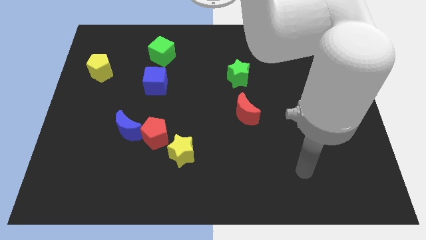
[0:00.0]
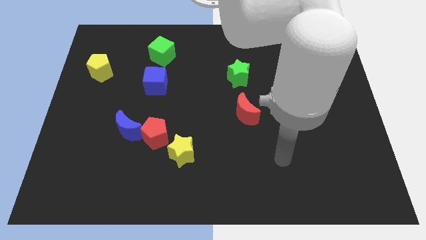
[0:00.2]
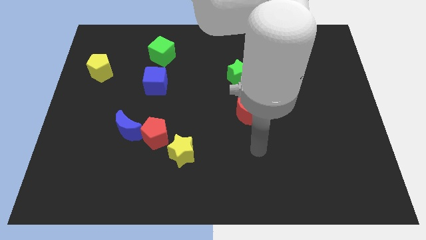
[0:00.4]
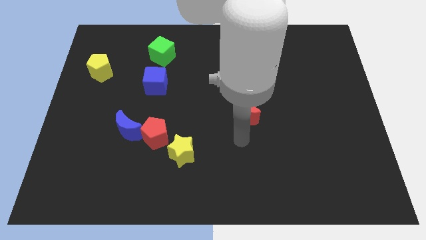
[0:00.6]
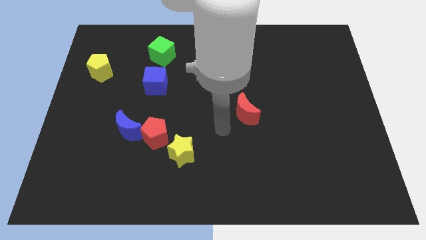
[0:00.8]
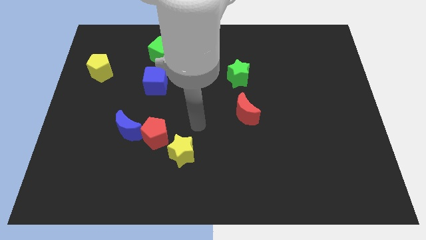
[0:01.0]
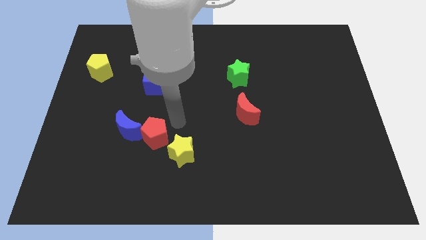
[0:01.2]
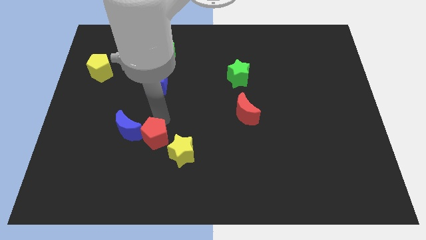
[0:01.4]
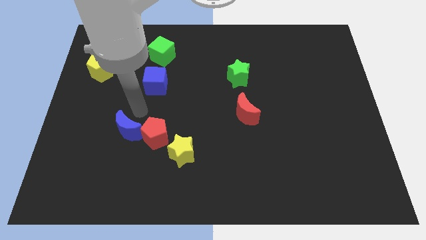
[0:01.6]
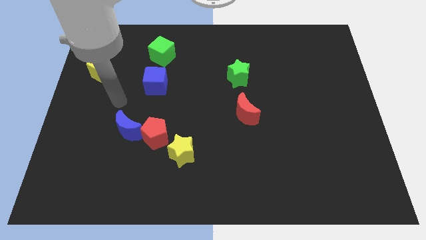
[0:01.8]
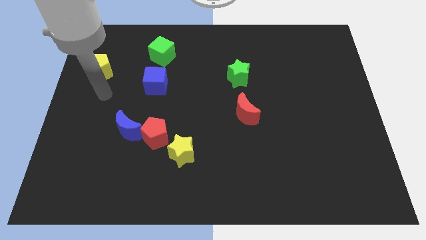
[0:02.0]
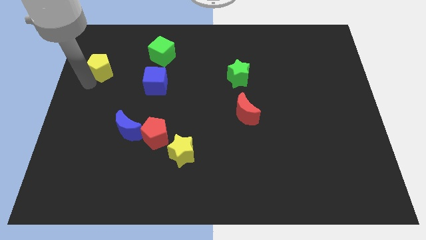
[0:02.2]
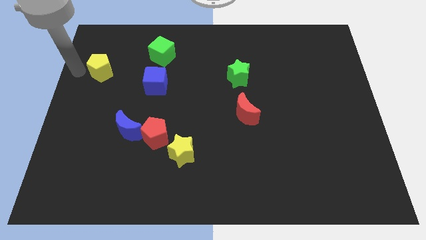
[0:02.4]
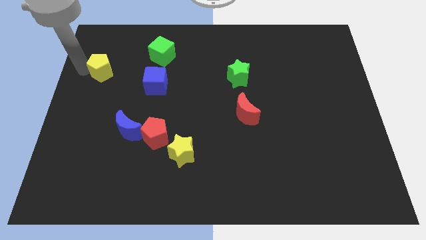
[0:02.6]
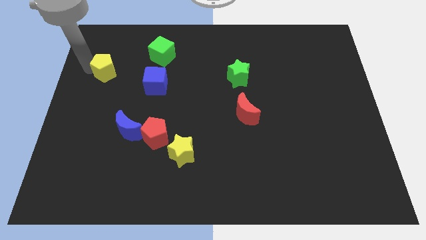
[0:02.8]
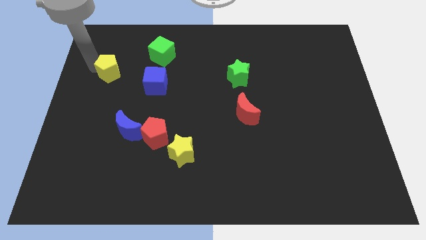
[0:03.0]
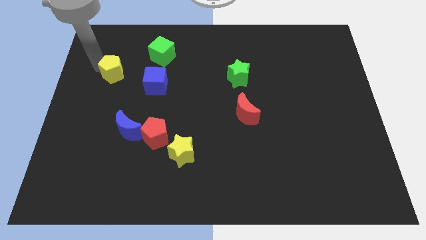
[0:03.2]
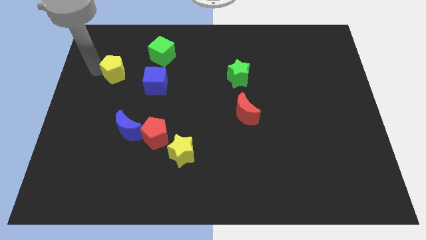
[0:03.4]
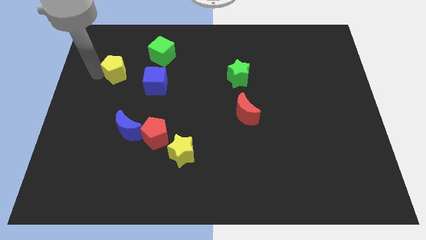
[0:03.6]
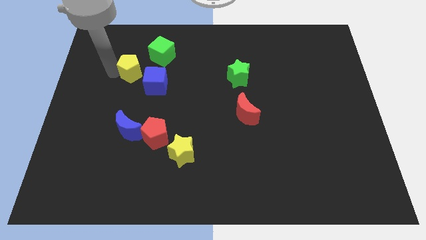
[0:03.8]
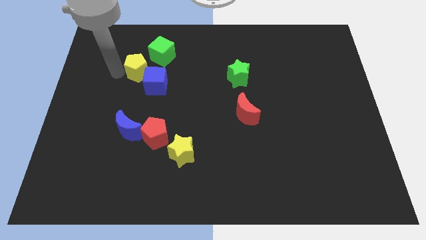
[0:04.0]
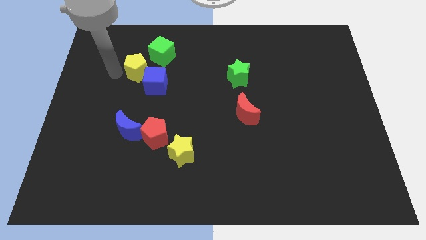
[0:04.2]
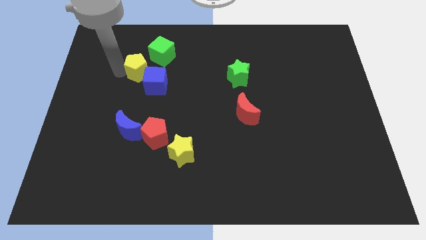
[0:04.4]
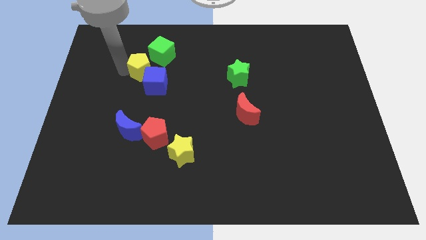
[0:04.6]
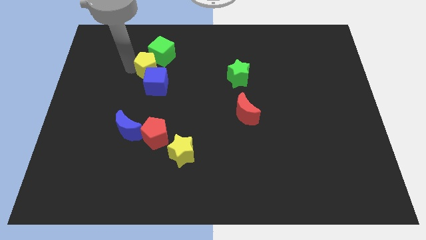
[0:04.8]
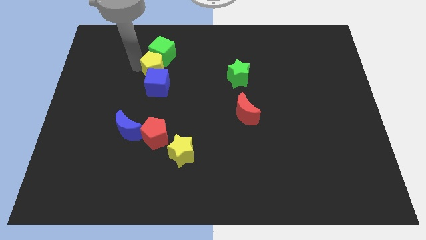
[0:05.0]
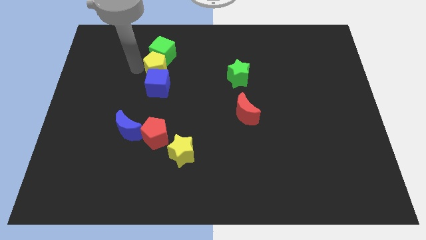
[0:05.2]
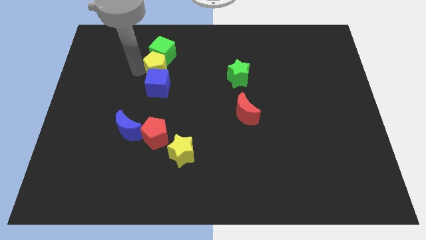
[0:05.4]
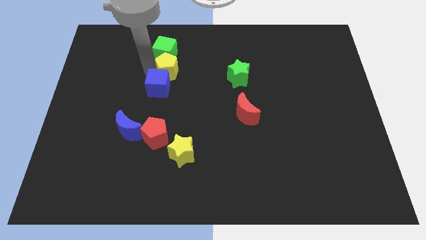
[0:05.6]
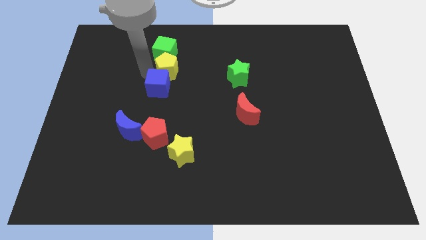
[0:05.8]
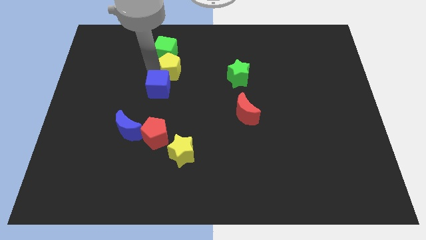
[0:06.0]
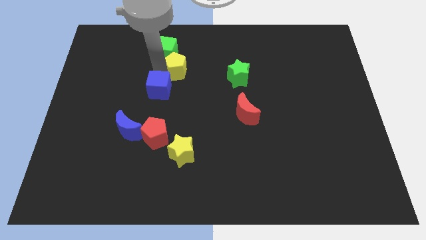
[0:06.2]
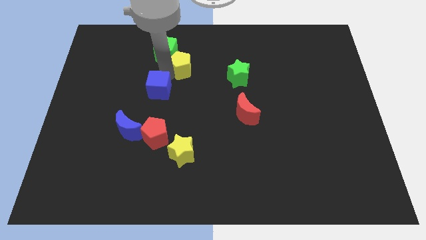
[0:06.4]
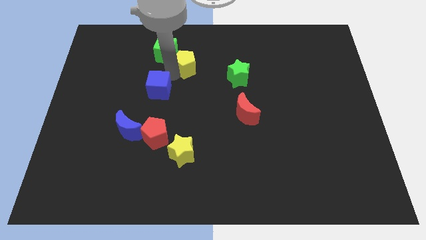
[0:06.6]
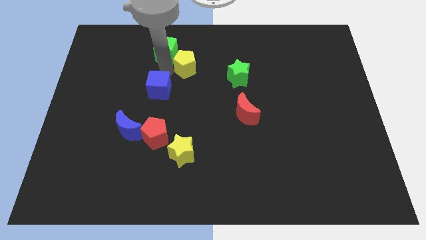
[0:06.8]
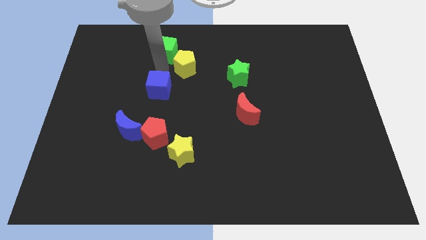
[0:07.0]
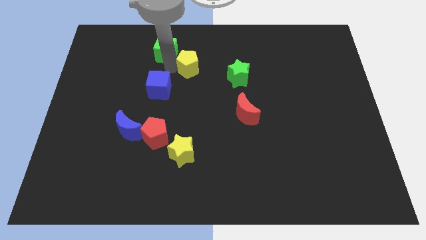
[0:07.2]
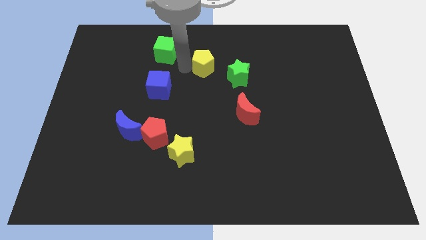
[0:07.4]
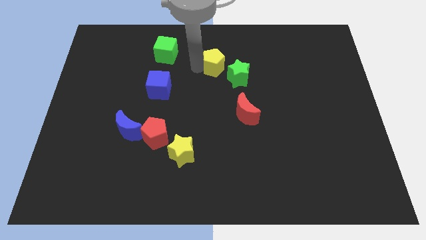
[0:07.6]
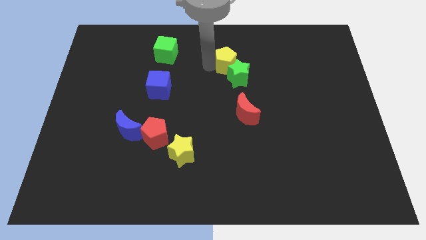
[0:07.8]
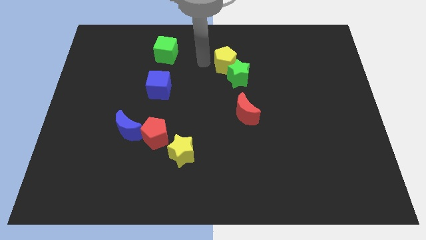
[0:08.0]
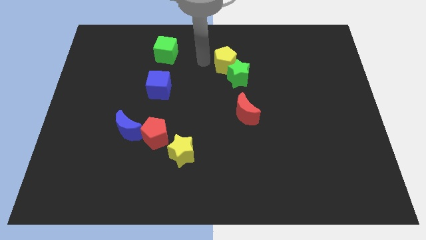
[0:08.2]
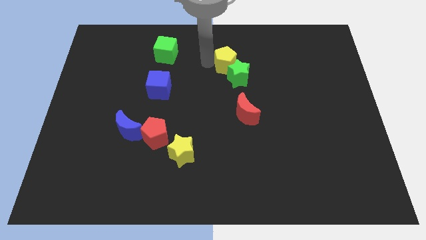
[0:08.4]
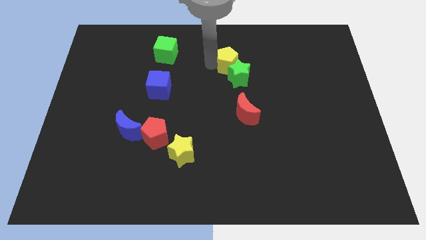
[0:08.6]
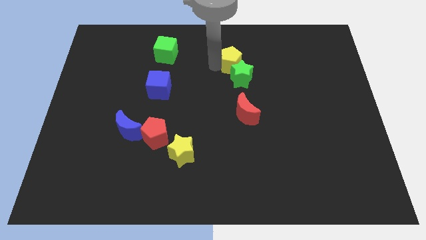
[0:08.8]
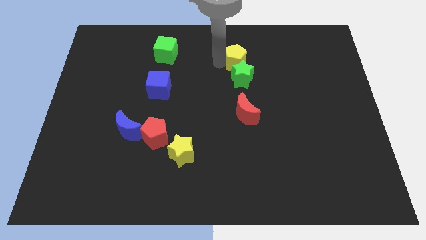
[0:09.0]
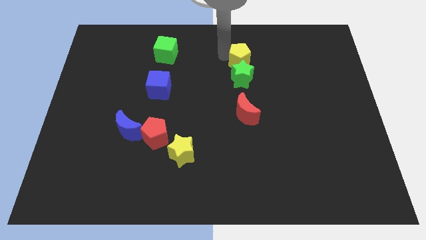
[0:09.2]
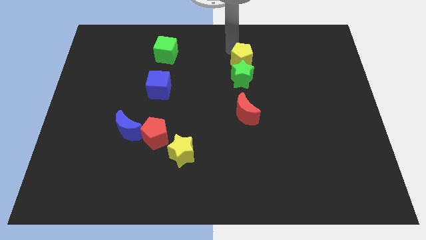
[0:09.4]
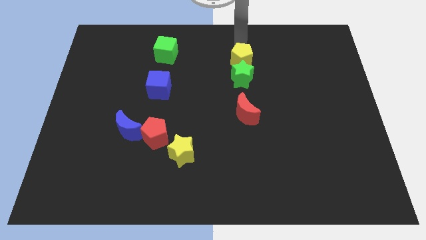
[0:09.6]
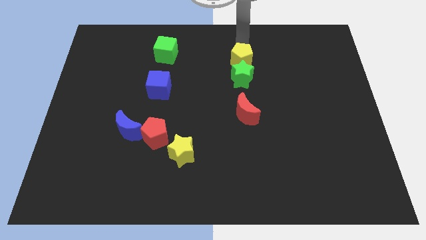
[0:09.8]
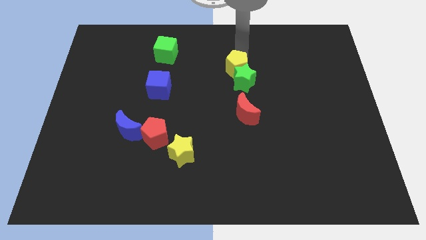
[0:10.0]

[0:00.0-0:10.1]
push the yellow pentagon above the red moon

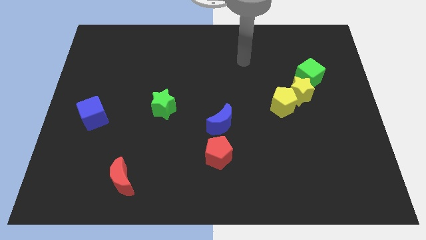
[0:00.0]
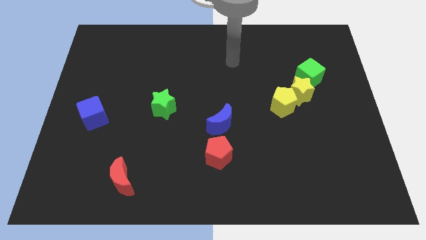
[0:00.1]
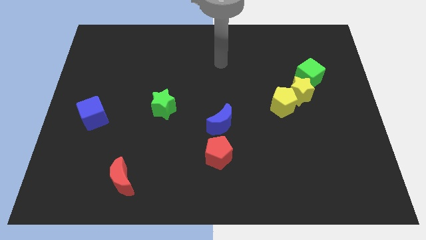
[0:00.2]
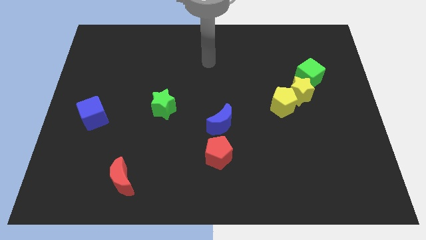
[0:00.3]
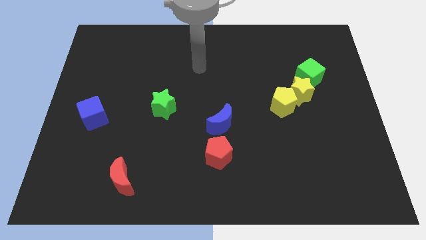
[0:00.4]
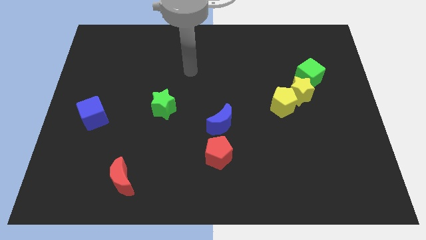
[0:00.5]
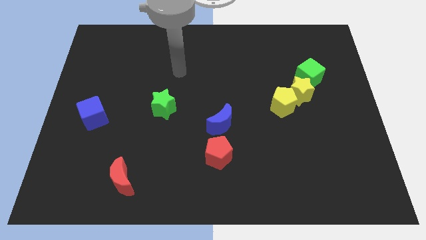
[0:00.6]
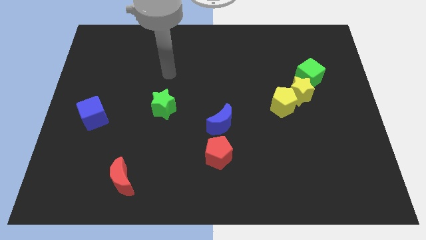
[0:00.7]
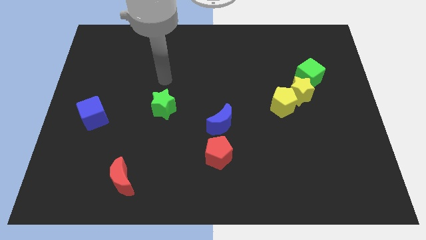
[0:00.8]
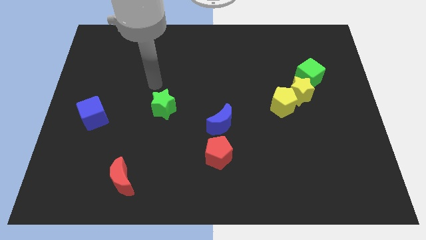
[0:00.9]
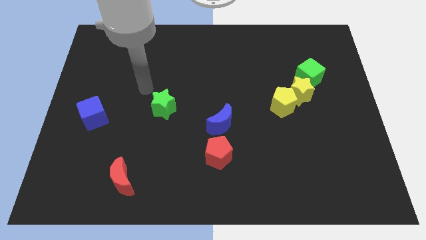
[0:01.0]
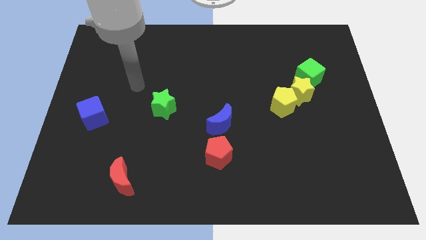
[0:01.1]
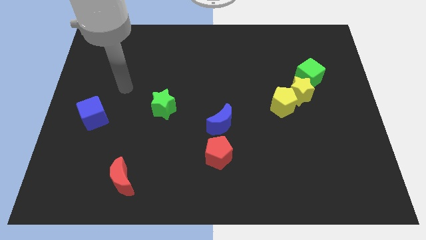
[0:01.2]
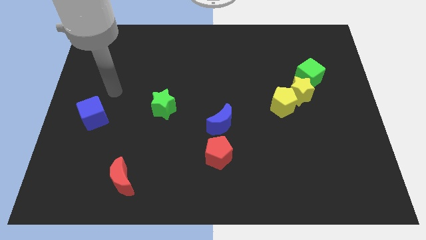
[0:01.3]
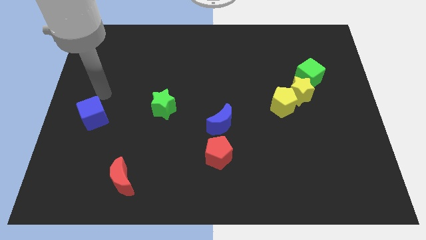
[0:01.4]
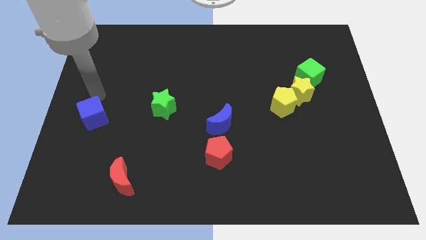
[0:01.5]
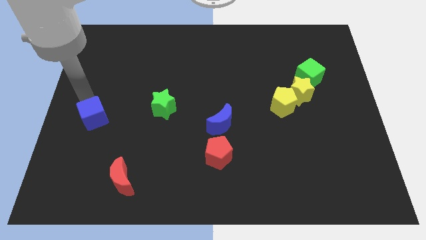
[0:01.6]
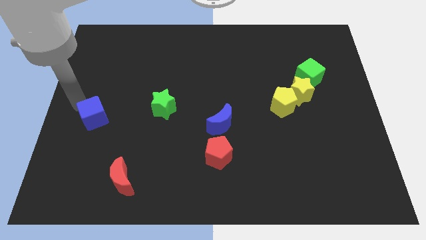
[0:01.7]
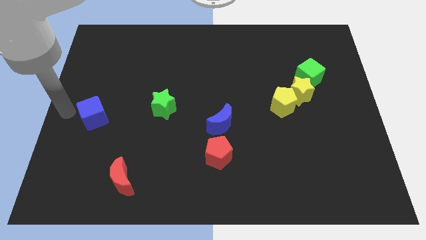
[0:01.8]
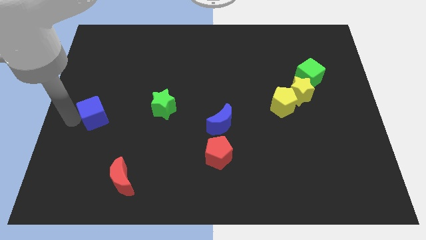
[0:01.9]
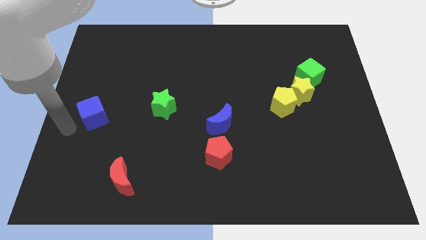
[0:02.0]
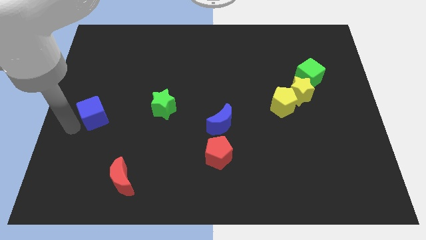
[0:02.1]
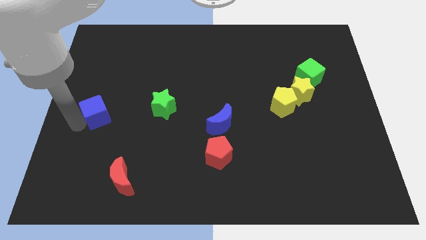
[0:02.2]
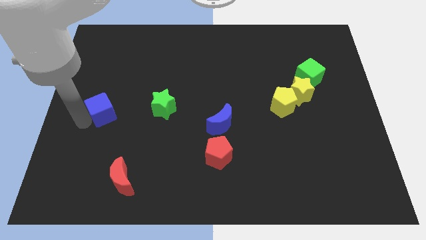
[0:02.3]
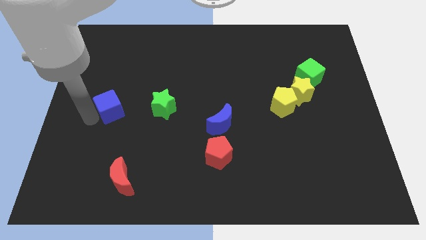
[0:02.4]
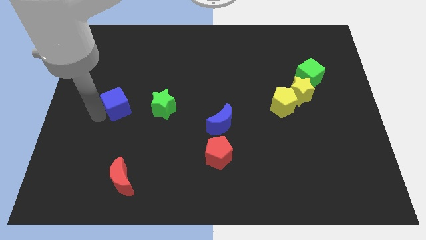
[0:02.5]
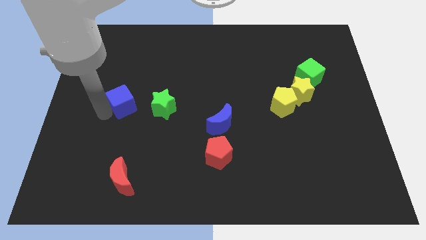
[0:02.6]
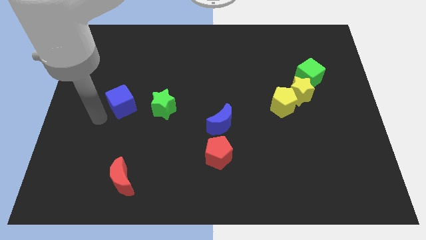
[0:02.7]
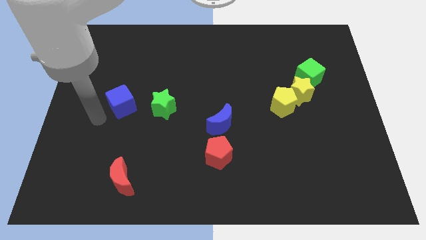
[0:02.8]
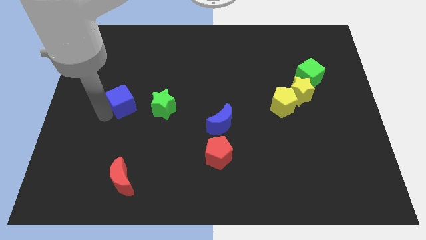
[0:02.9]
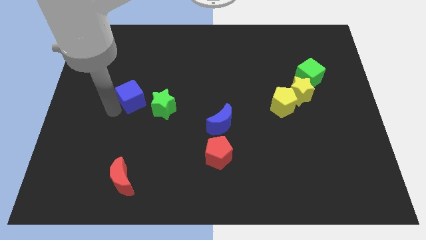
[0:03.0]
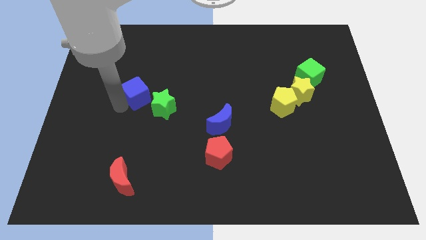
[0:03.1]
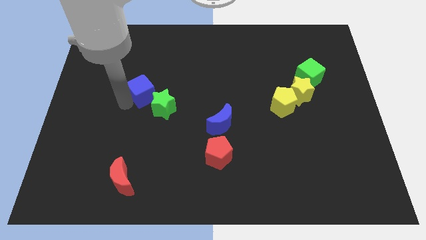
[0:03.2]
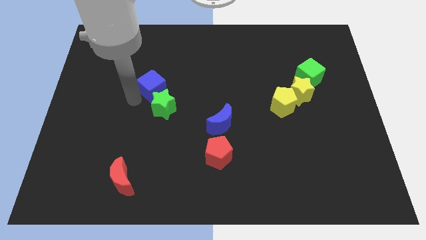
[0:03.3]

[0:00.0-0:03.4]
put the blue cube to the top of the green star
